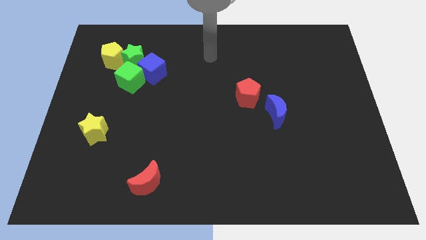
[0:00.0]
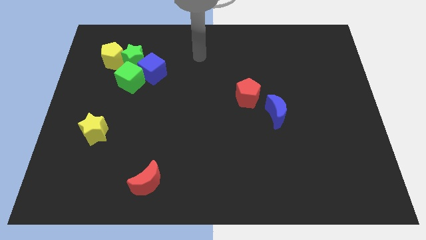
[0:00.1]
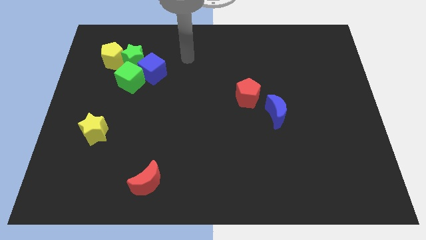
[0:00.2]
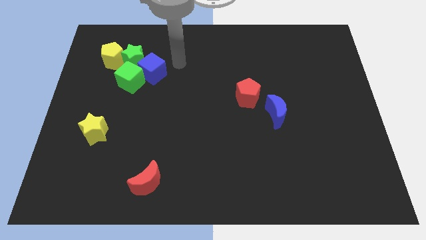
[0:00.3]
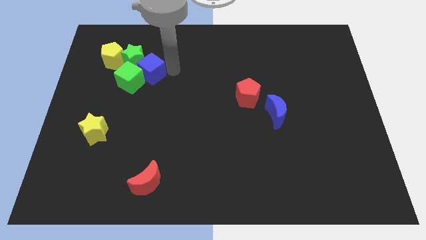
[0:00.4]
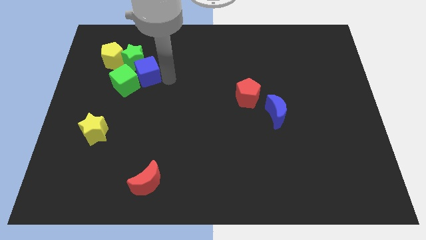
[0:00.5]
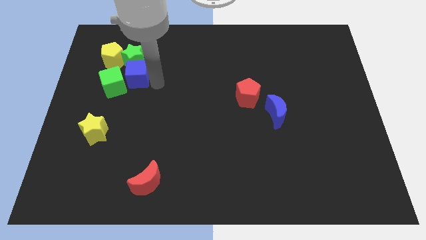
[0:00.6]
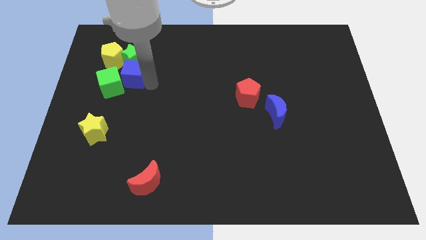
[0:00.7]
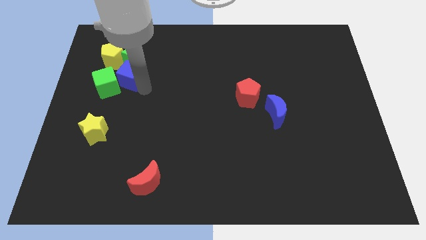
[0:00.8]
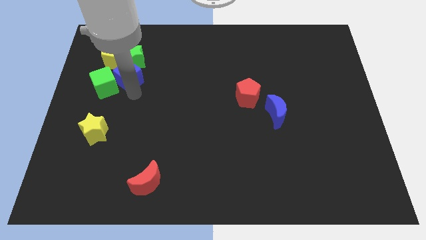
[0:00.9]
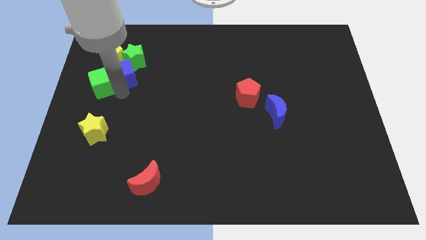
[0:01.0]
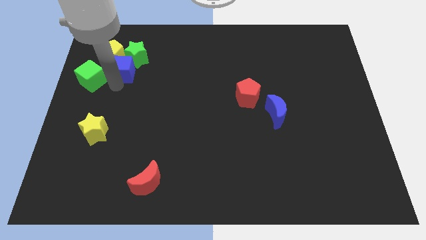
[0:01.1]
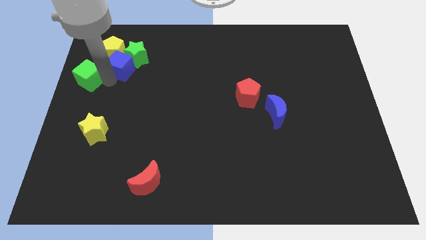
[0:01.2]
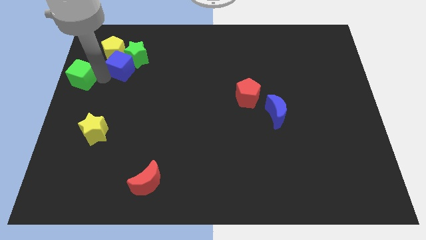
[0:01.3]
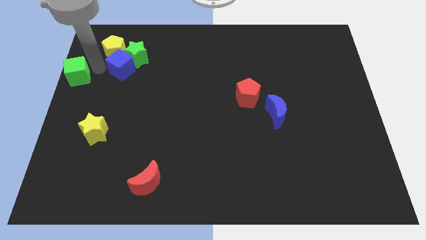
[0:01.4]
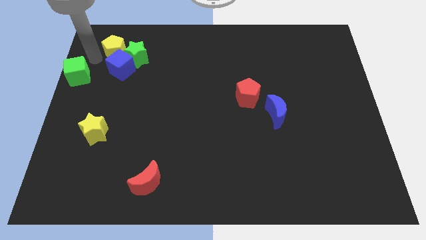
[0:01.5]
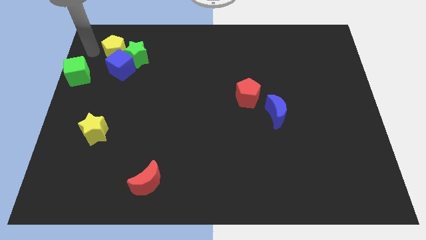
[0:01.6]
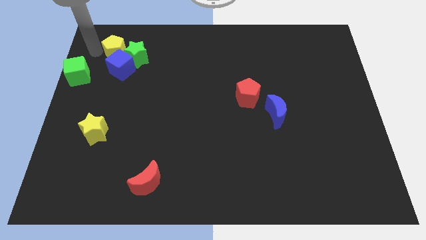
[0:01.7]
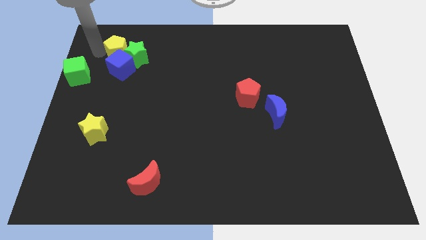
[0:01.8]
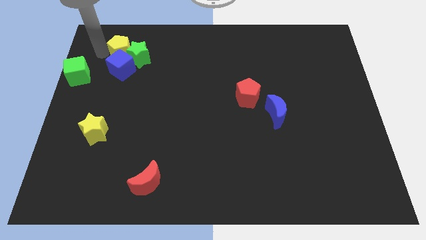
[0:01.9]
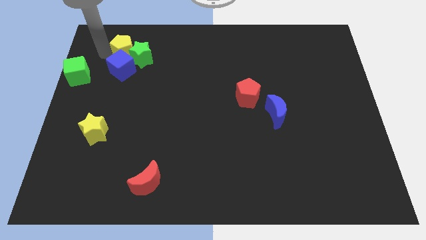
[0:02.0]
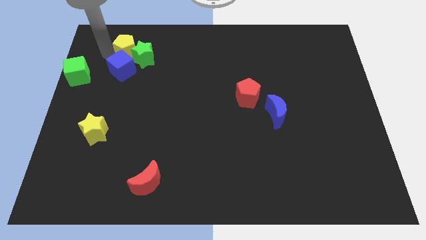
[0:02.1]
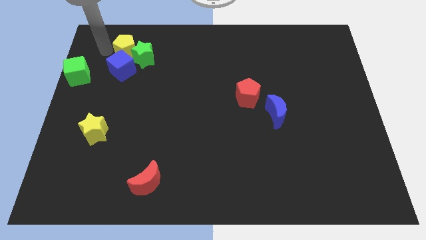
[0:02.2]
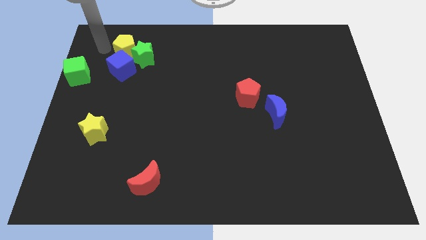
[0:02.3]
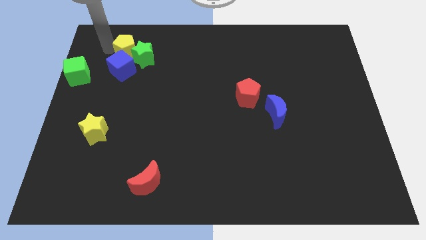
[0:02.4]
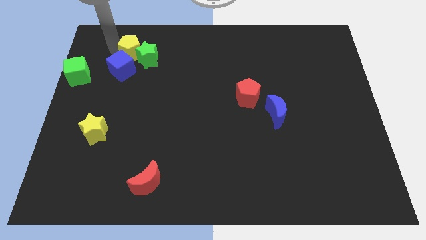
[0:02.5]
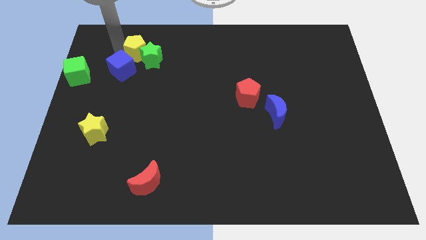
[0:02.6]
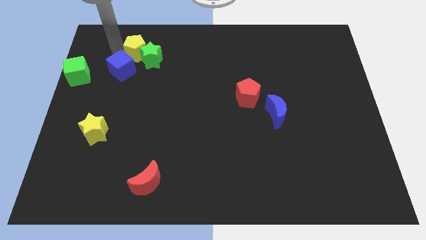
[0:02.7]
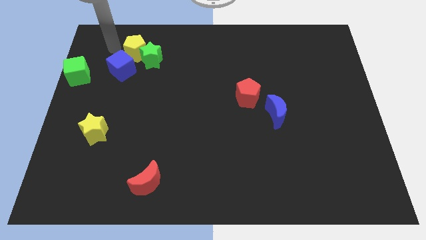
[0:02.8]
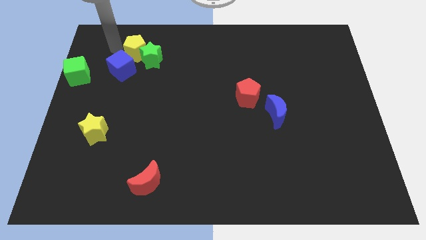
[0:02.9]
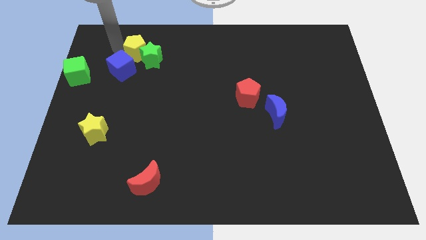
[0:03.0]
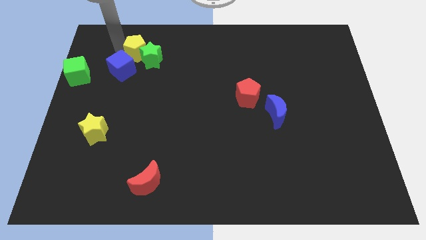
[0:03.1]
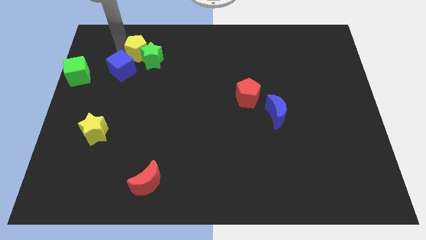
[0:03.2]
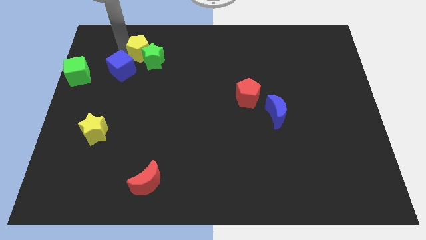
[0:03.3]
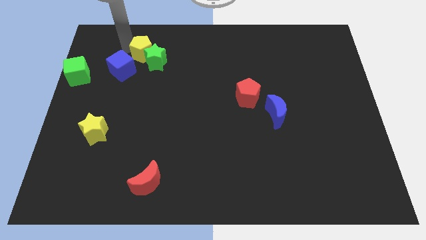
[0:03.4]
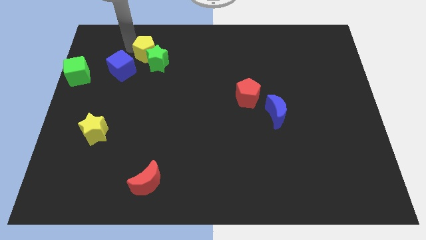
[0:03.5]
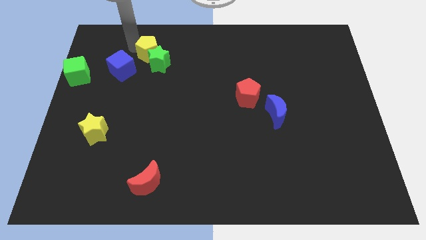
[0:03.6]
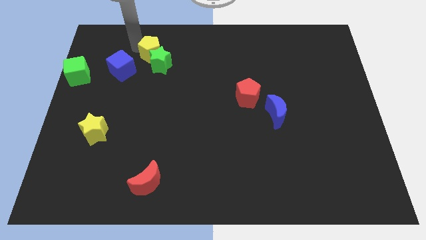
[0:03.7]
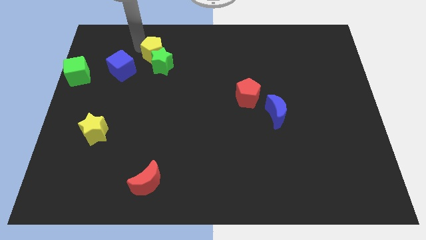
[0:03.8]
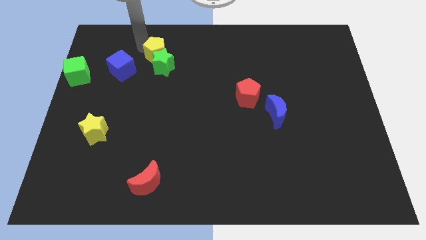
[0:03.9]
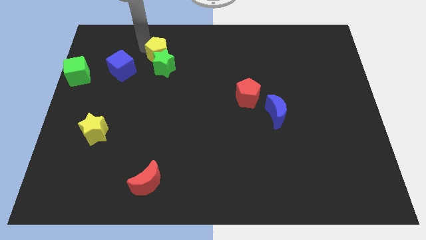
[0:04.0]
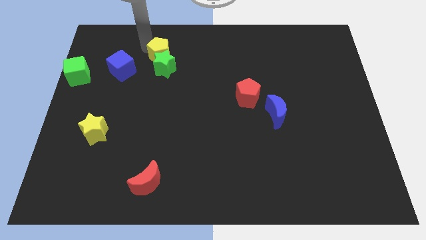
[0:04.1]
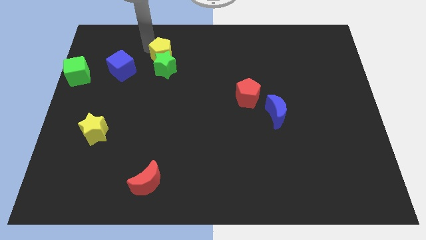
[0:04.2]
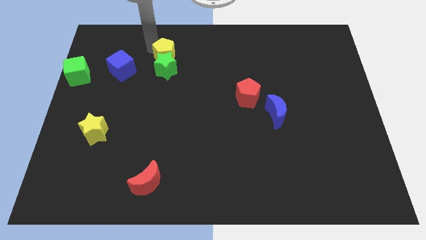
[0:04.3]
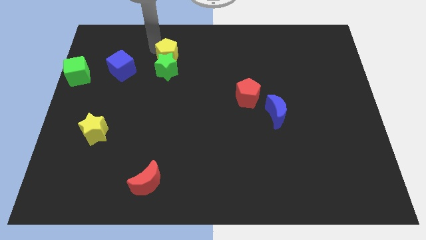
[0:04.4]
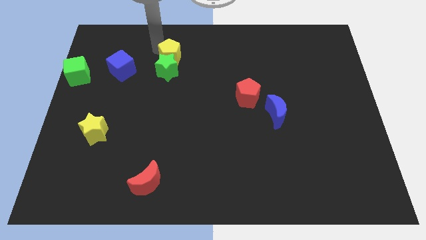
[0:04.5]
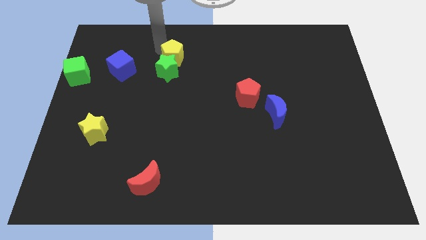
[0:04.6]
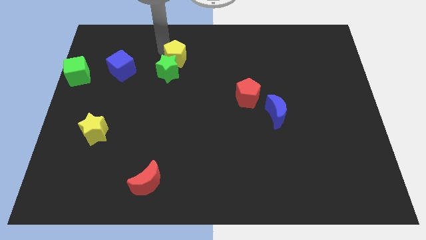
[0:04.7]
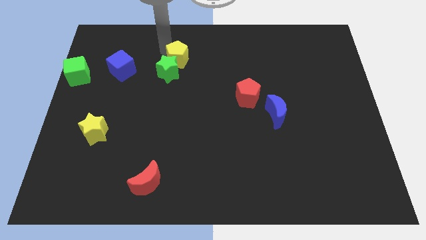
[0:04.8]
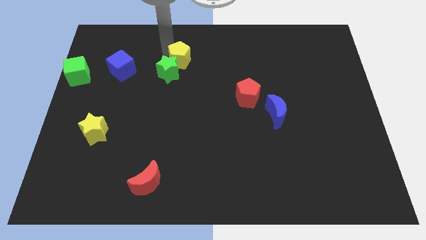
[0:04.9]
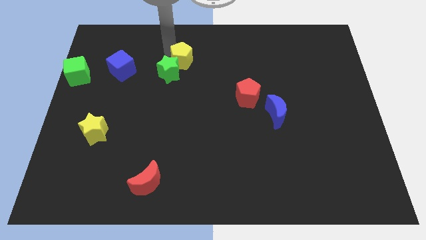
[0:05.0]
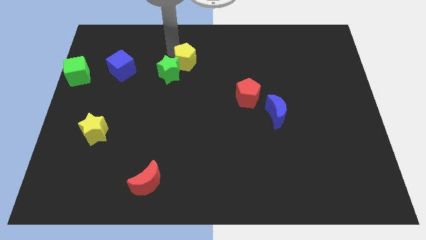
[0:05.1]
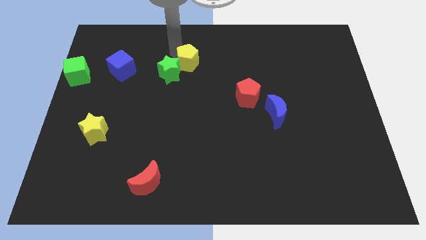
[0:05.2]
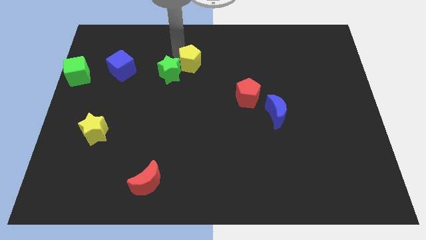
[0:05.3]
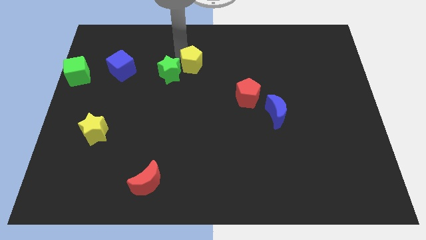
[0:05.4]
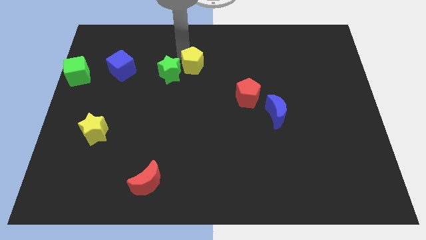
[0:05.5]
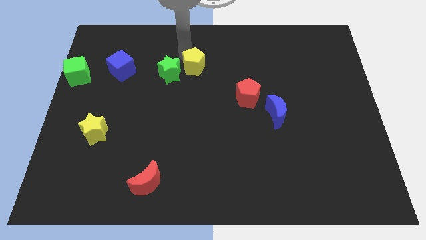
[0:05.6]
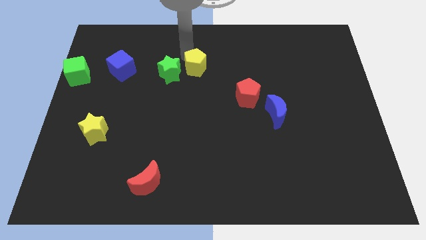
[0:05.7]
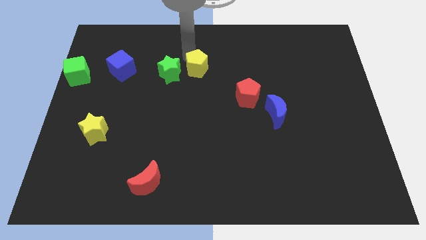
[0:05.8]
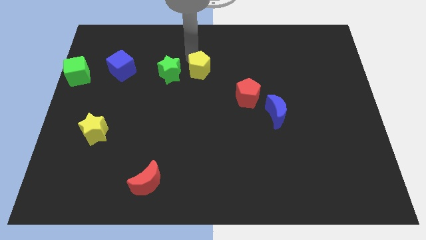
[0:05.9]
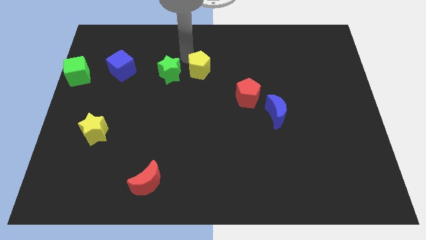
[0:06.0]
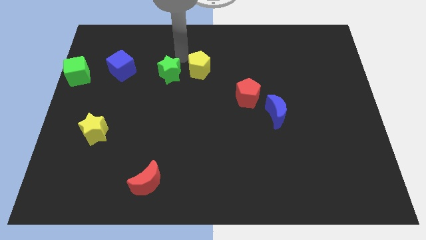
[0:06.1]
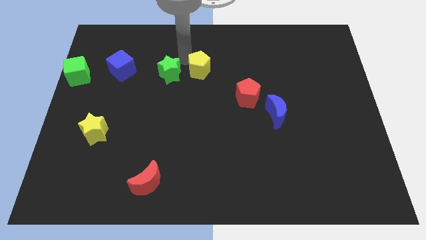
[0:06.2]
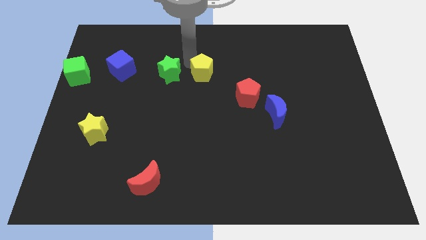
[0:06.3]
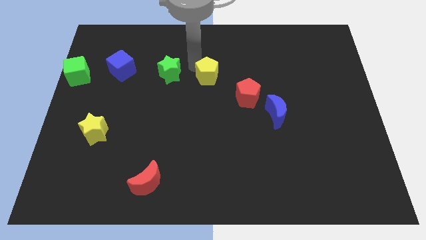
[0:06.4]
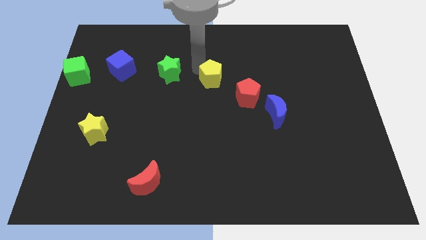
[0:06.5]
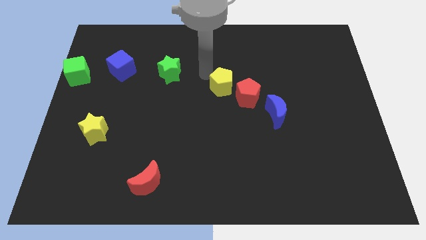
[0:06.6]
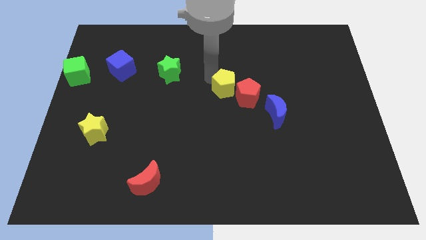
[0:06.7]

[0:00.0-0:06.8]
slide the yellow pentagon next to the red pentagon
